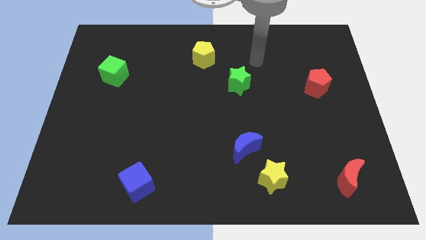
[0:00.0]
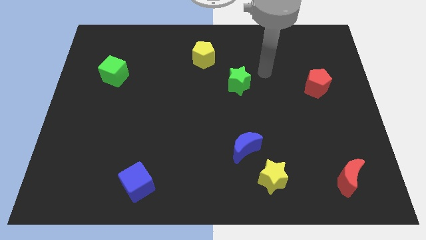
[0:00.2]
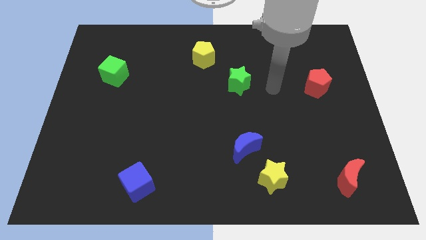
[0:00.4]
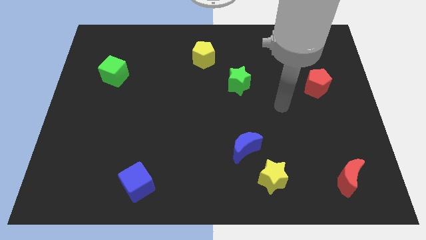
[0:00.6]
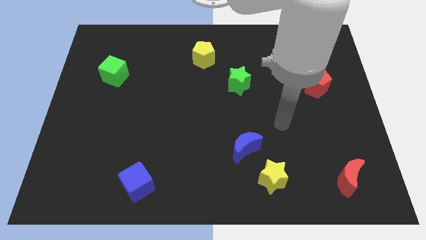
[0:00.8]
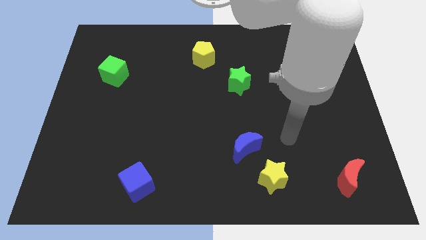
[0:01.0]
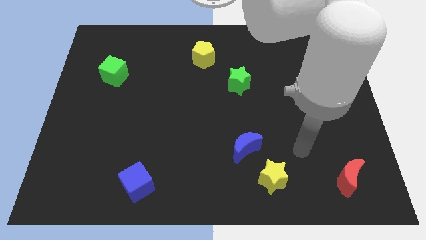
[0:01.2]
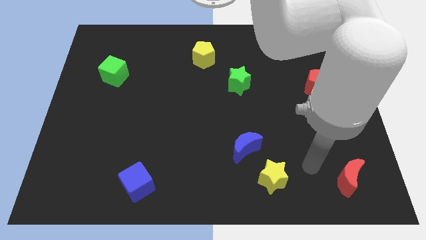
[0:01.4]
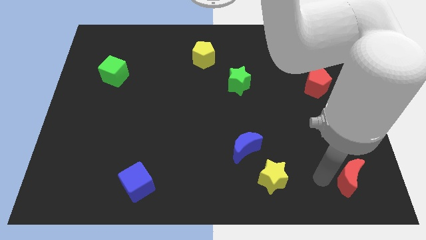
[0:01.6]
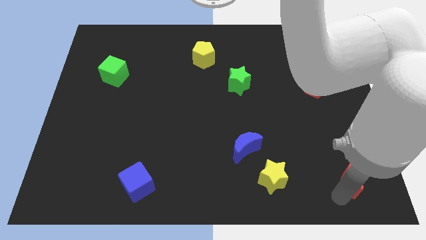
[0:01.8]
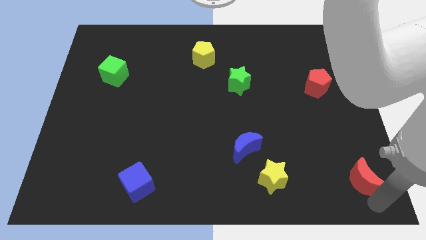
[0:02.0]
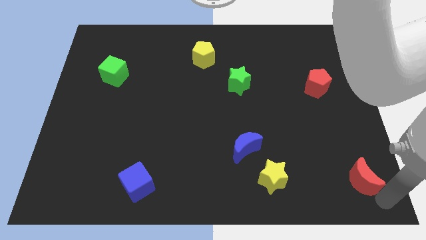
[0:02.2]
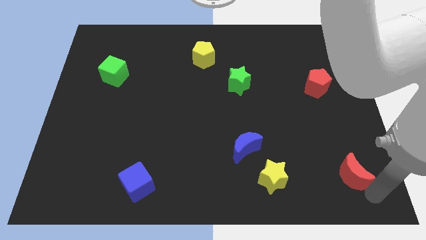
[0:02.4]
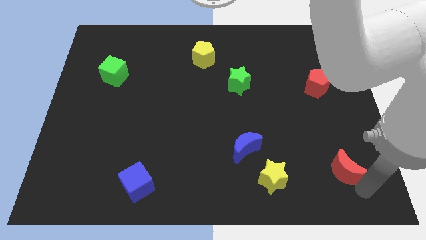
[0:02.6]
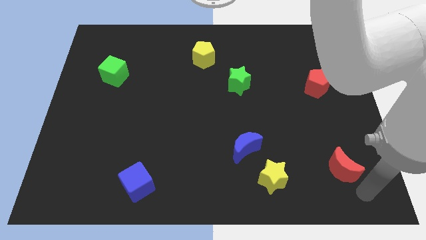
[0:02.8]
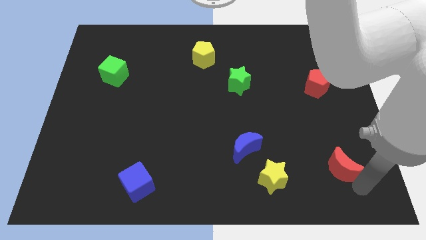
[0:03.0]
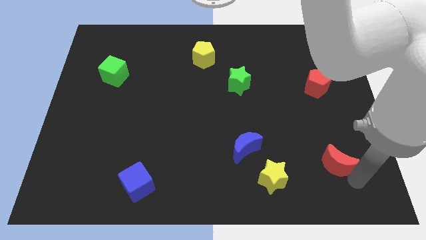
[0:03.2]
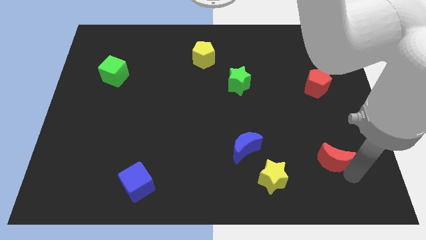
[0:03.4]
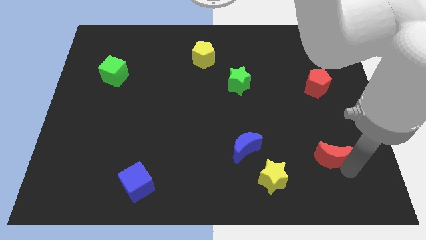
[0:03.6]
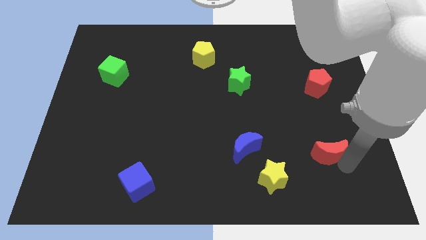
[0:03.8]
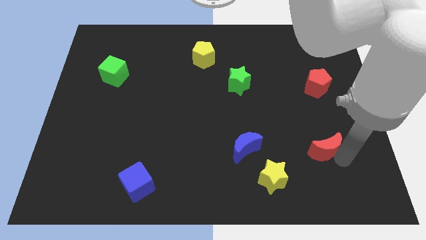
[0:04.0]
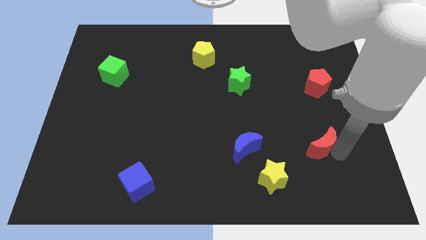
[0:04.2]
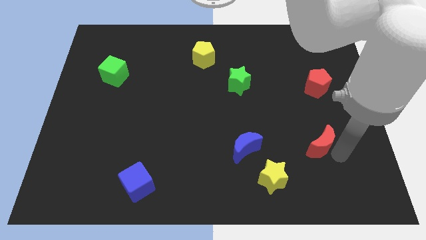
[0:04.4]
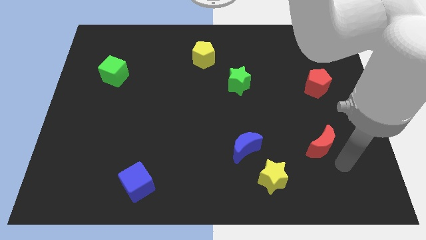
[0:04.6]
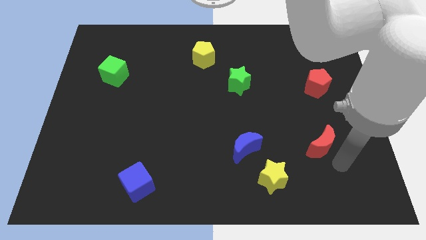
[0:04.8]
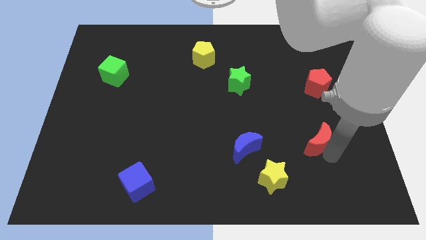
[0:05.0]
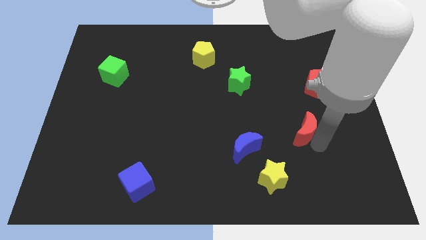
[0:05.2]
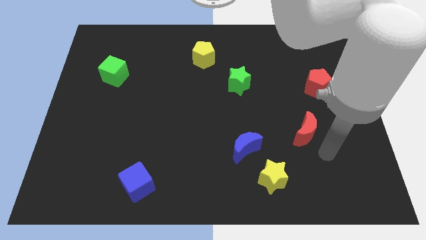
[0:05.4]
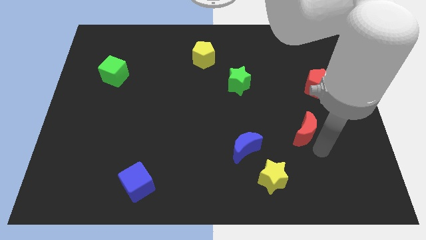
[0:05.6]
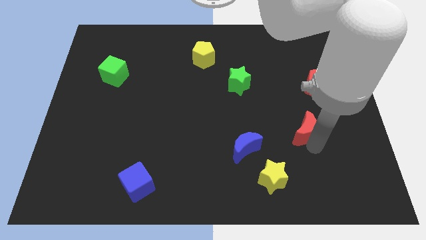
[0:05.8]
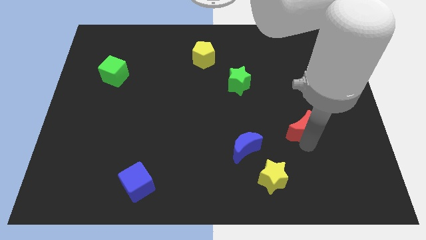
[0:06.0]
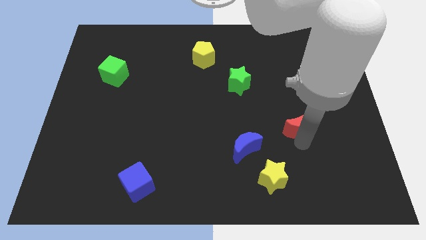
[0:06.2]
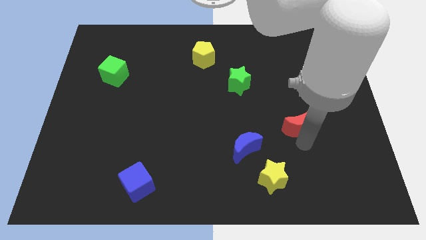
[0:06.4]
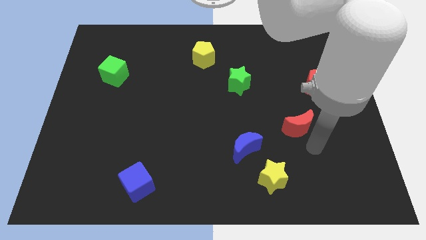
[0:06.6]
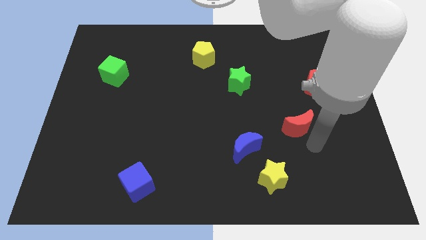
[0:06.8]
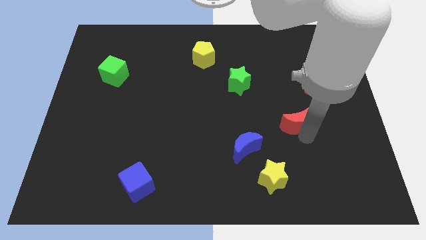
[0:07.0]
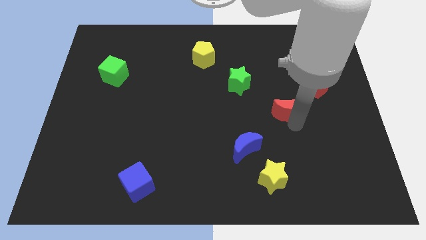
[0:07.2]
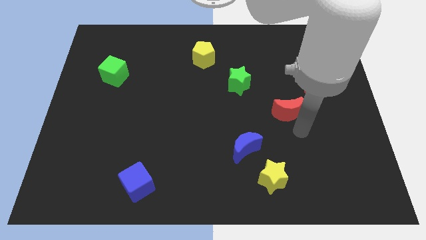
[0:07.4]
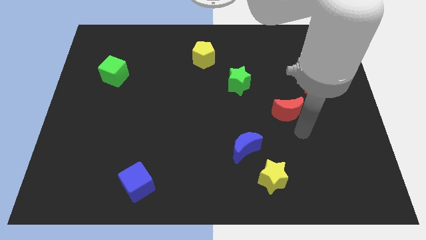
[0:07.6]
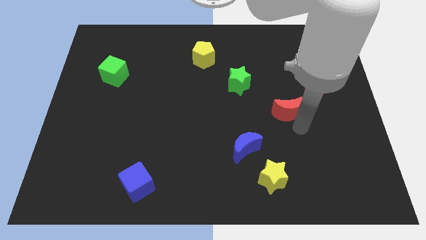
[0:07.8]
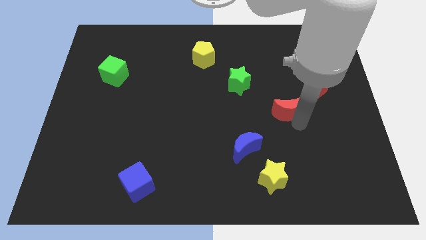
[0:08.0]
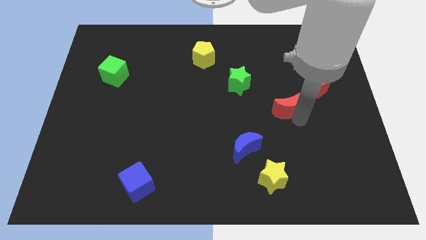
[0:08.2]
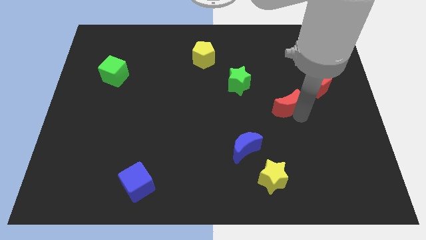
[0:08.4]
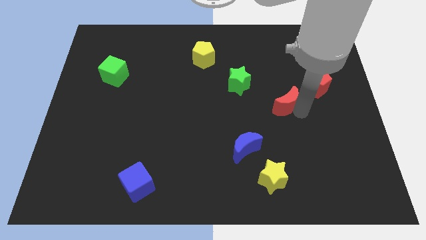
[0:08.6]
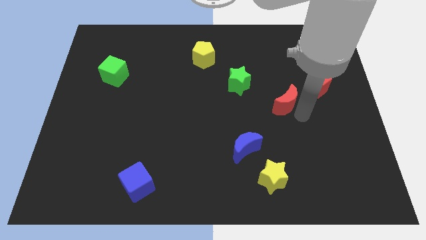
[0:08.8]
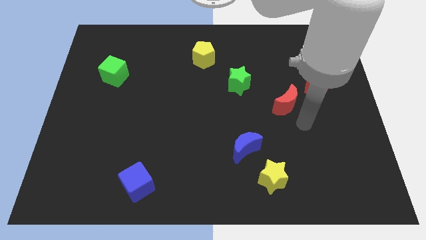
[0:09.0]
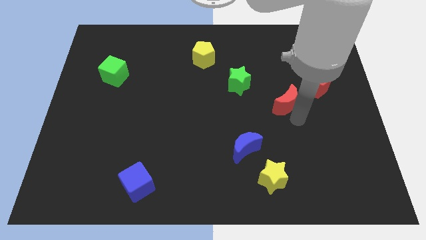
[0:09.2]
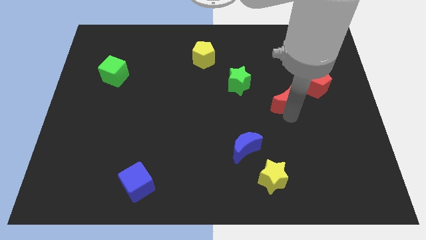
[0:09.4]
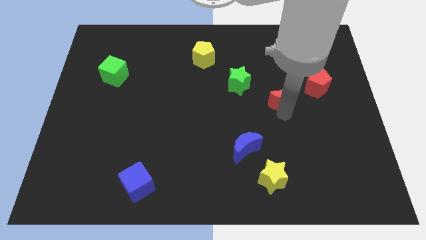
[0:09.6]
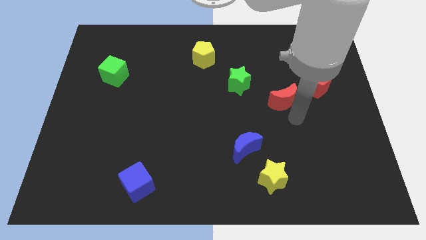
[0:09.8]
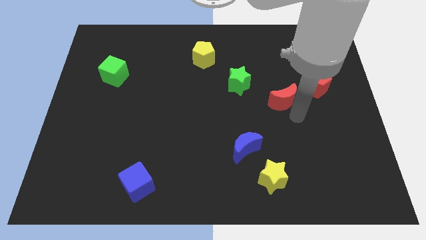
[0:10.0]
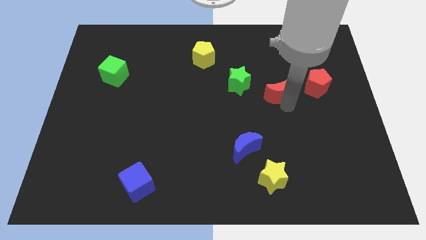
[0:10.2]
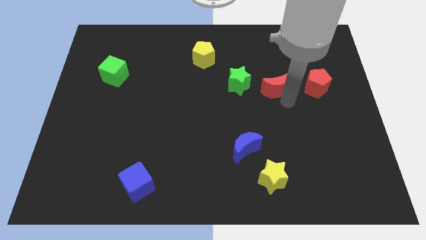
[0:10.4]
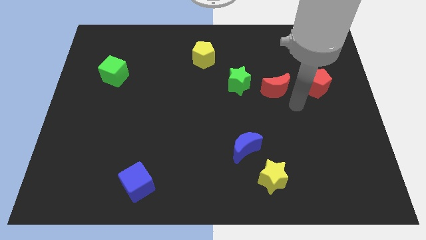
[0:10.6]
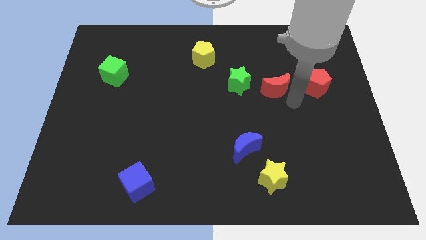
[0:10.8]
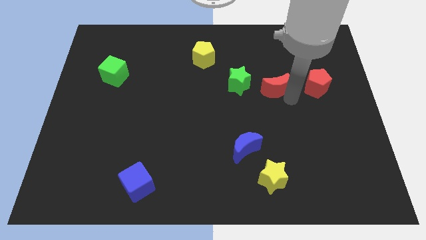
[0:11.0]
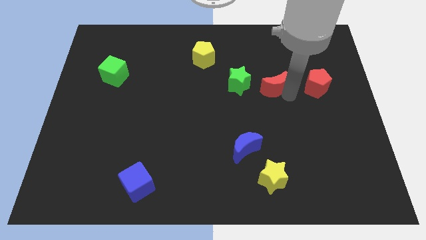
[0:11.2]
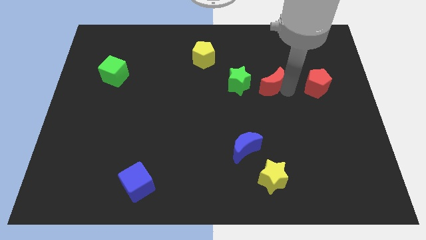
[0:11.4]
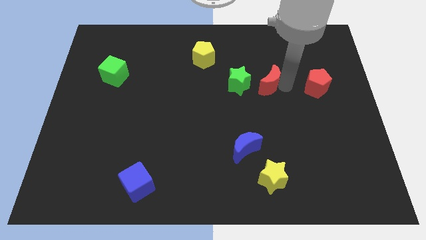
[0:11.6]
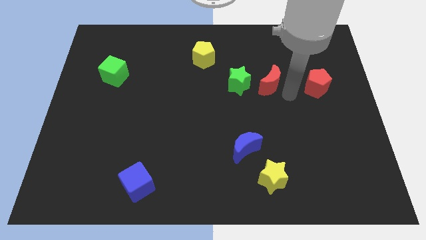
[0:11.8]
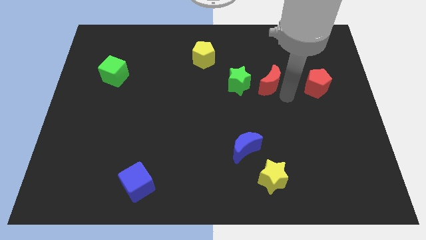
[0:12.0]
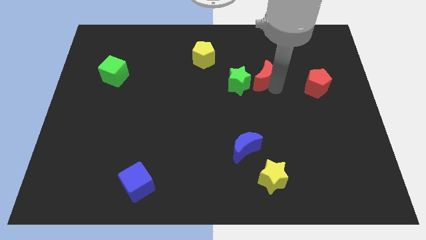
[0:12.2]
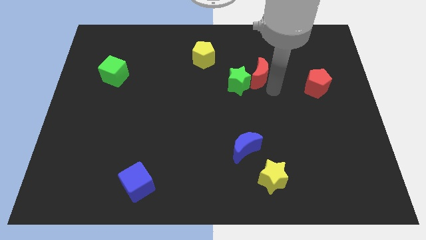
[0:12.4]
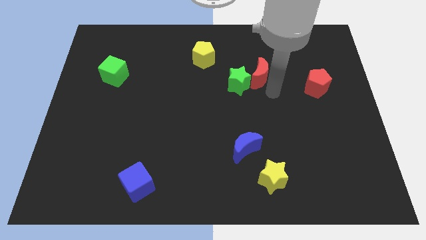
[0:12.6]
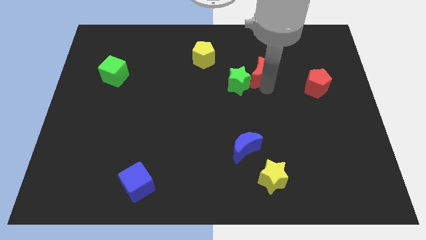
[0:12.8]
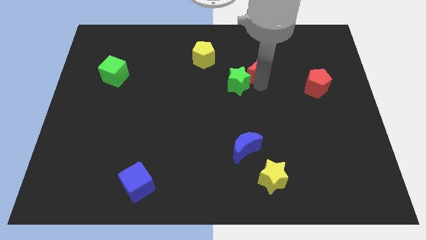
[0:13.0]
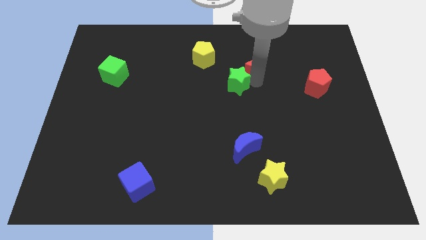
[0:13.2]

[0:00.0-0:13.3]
move the red moon to the right side of the yellow pentagon
